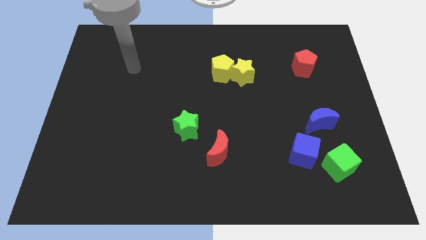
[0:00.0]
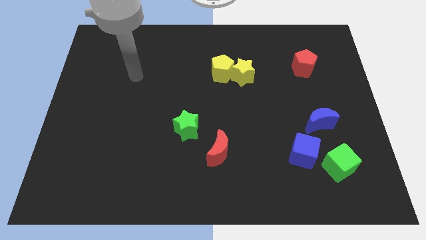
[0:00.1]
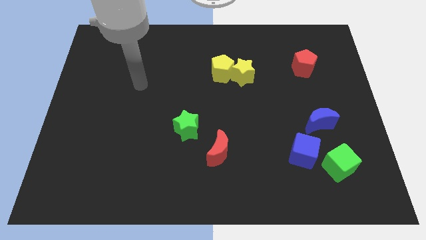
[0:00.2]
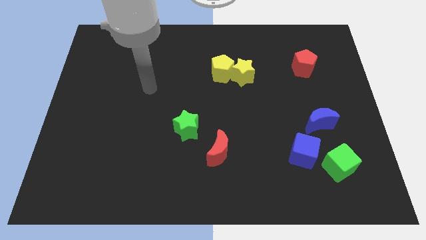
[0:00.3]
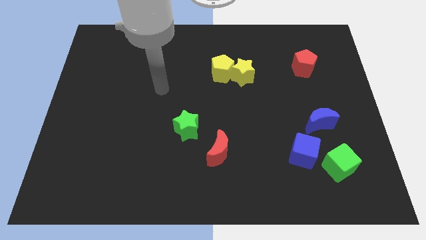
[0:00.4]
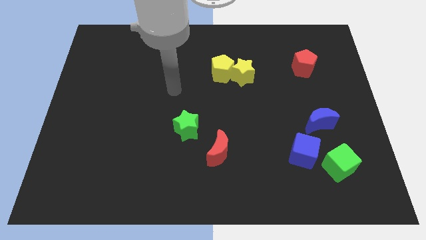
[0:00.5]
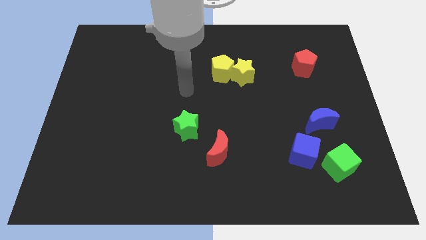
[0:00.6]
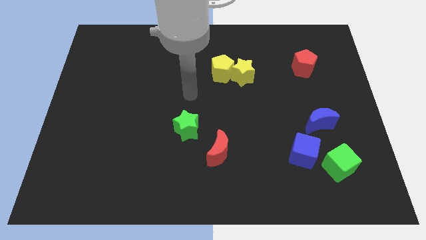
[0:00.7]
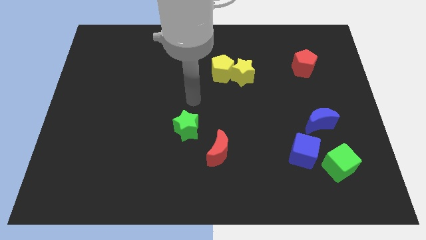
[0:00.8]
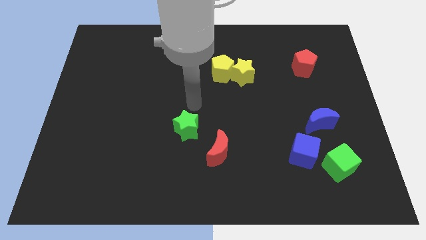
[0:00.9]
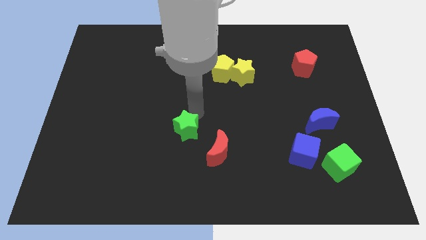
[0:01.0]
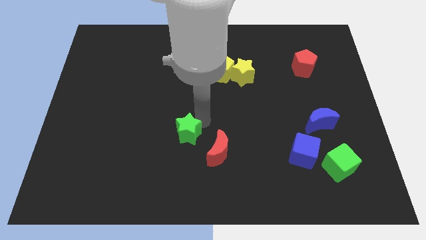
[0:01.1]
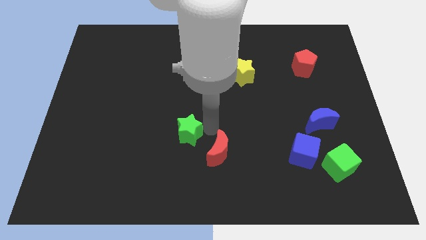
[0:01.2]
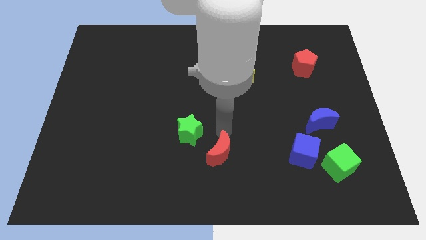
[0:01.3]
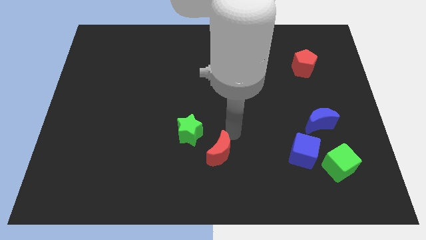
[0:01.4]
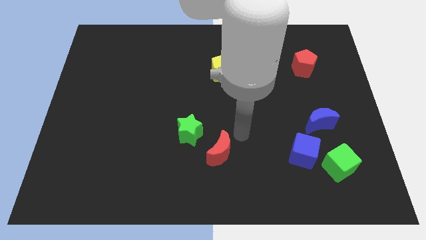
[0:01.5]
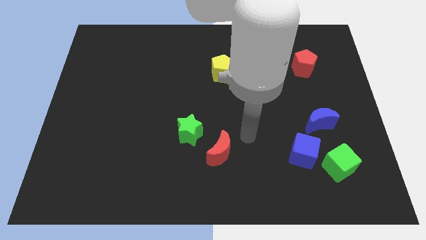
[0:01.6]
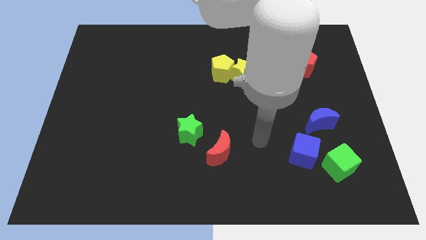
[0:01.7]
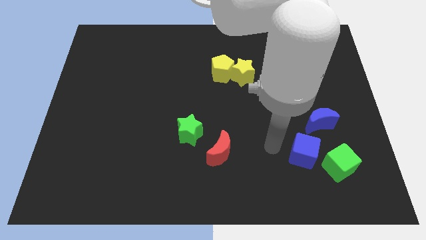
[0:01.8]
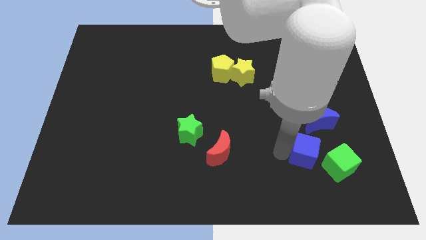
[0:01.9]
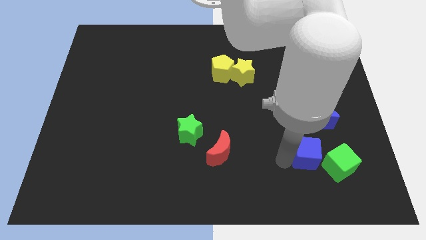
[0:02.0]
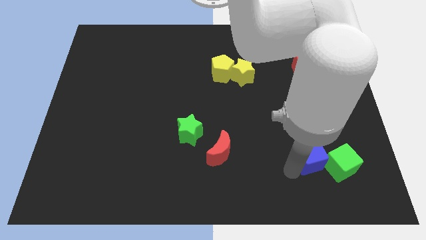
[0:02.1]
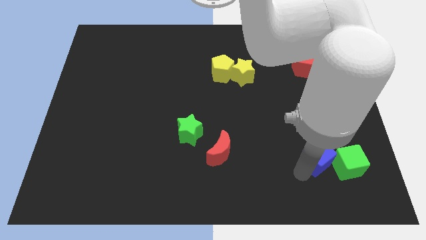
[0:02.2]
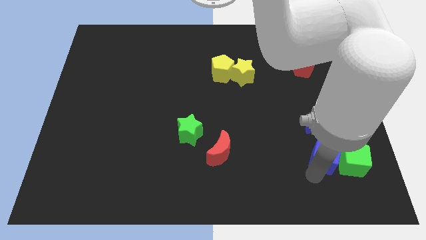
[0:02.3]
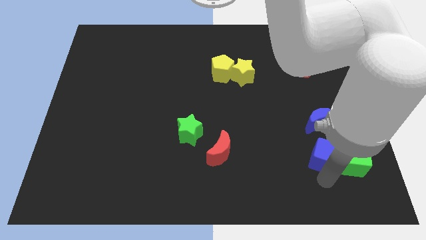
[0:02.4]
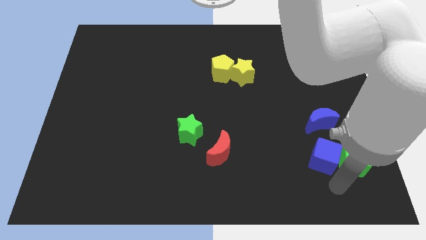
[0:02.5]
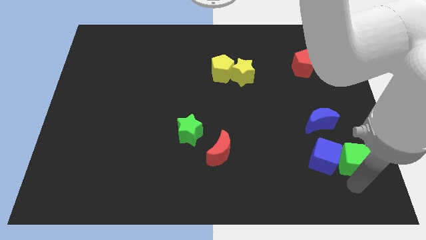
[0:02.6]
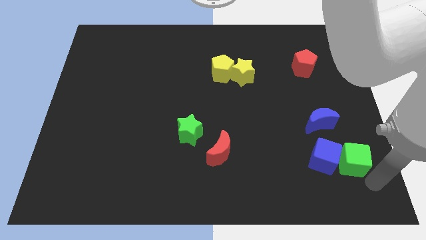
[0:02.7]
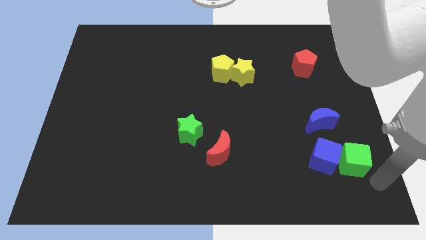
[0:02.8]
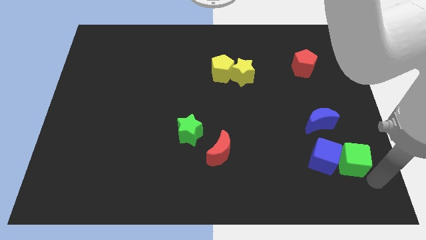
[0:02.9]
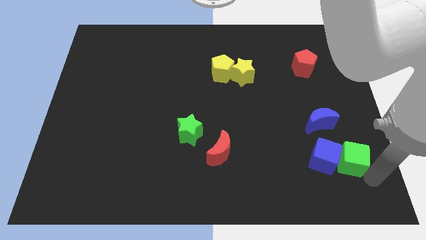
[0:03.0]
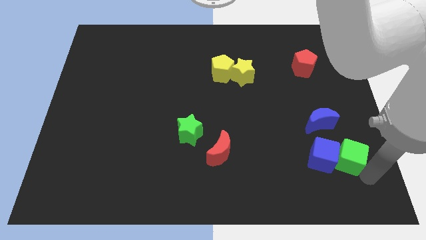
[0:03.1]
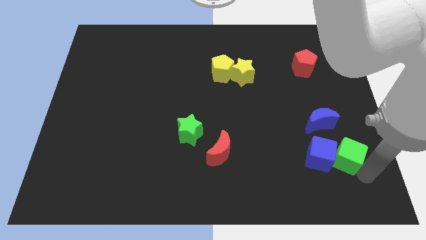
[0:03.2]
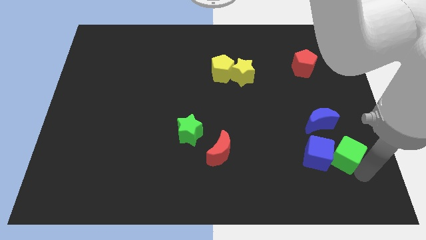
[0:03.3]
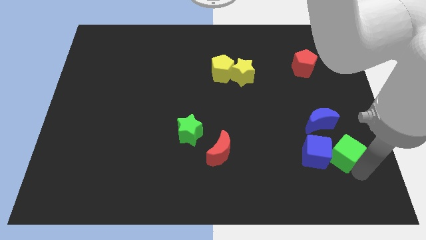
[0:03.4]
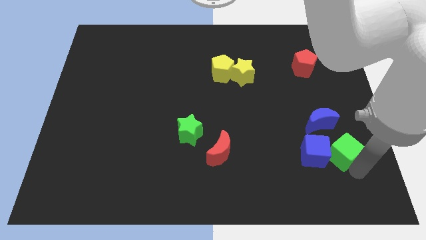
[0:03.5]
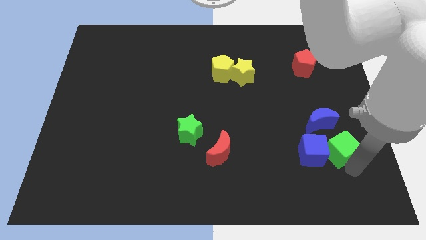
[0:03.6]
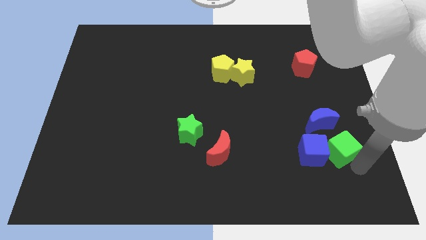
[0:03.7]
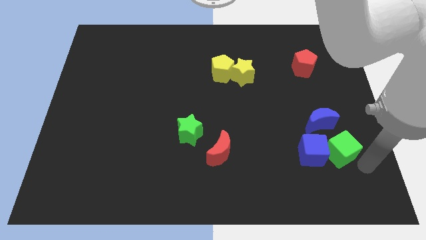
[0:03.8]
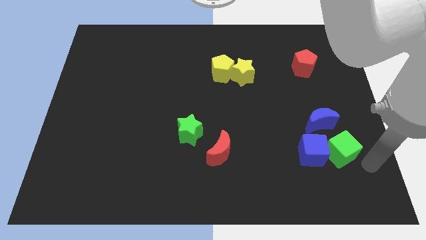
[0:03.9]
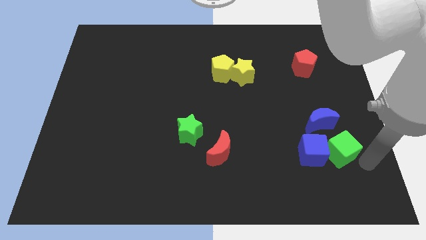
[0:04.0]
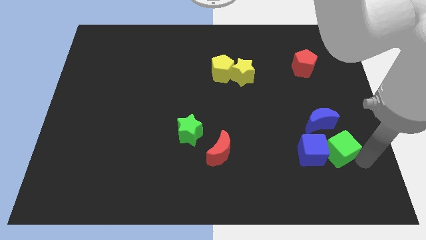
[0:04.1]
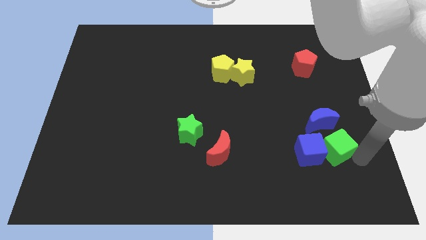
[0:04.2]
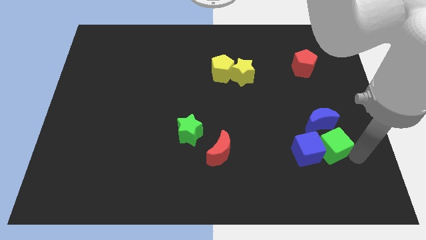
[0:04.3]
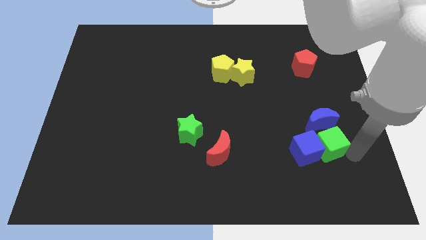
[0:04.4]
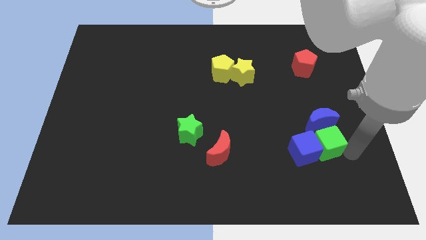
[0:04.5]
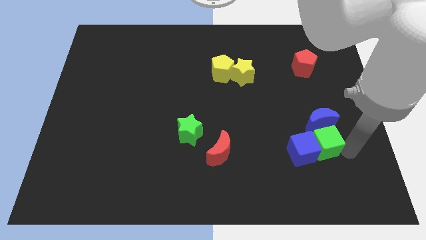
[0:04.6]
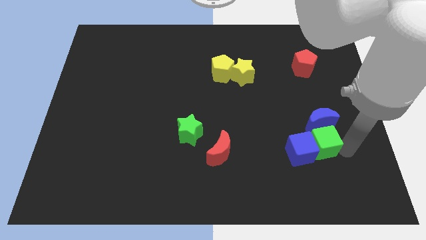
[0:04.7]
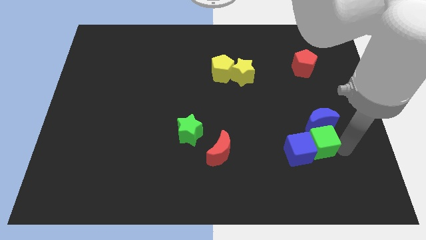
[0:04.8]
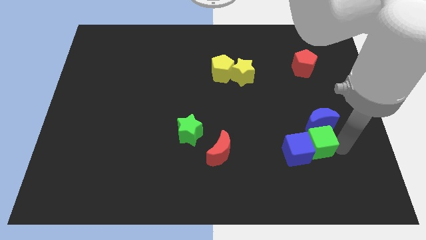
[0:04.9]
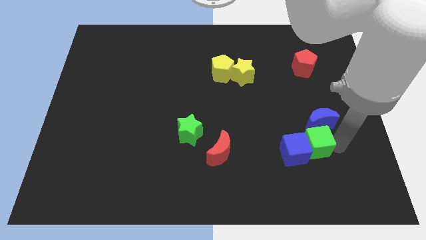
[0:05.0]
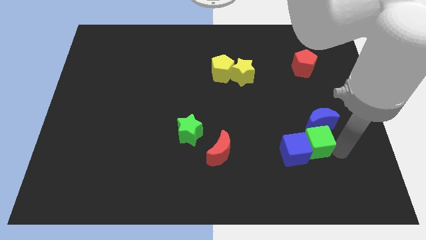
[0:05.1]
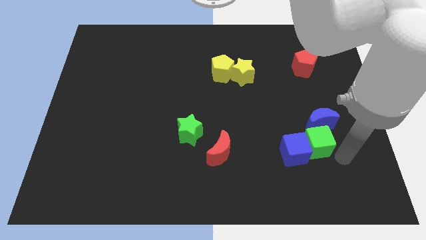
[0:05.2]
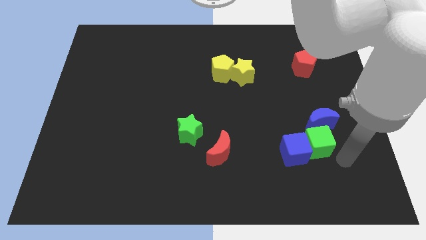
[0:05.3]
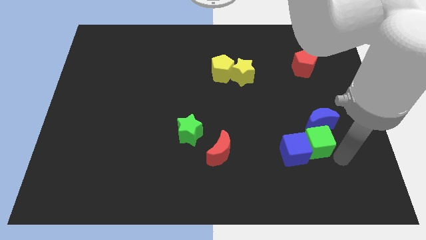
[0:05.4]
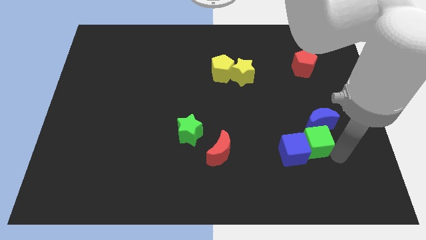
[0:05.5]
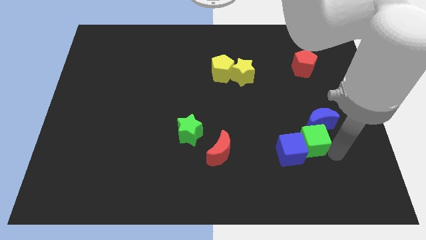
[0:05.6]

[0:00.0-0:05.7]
slightly slide the green cube upwards and to the left diagonally

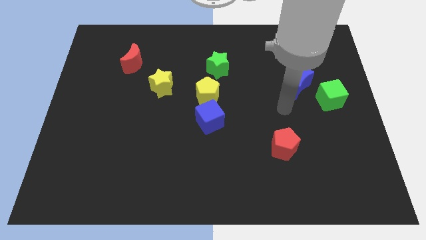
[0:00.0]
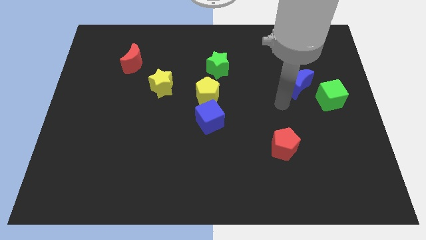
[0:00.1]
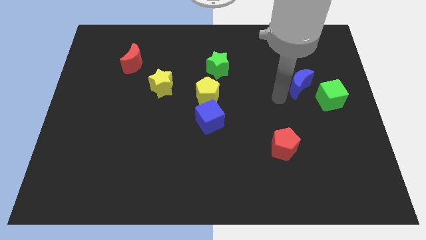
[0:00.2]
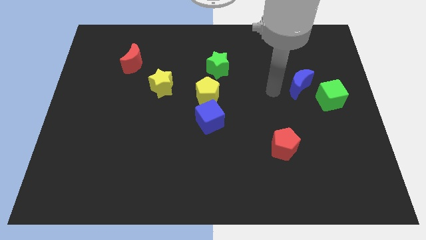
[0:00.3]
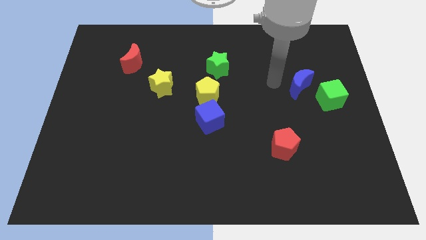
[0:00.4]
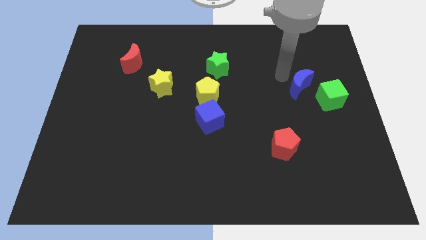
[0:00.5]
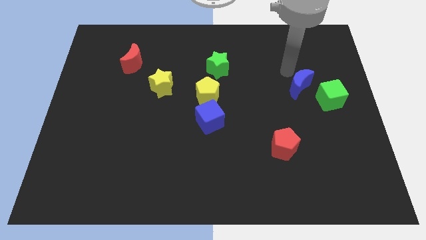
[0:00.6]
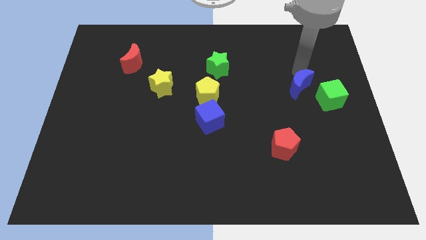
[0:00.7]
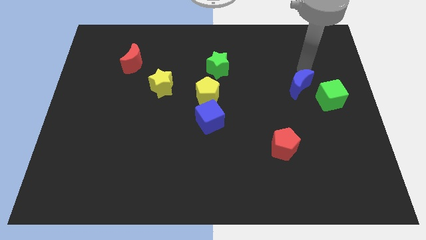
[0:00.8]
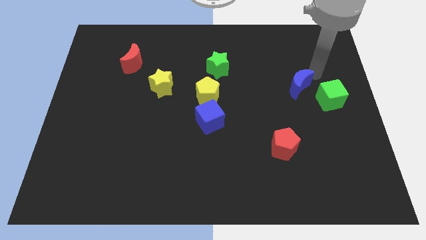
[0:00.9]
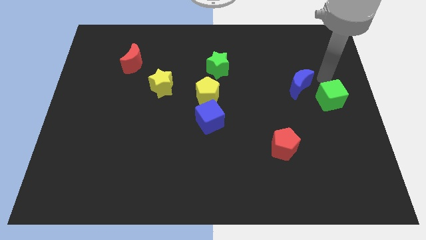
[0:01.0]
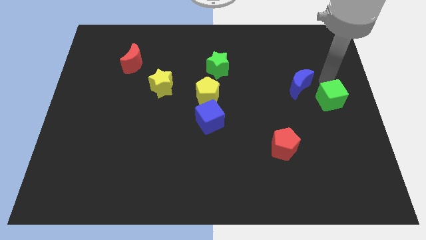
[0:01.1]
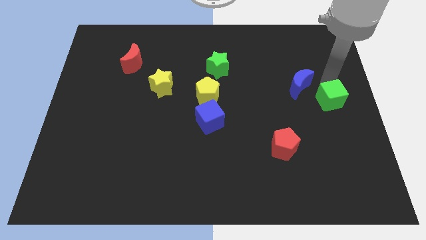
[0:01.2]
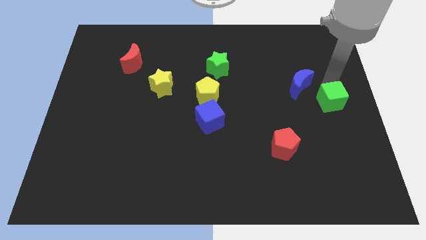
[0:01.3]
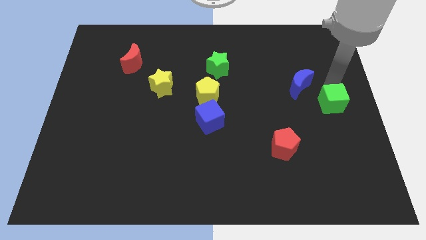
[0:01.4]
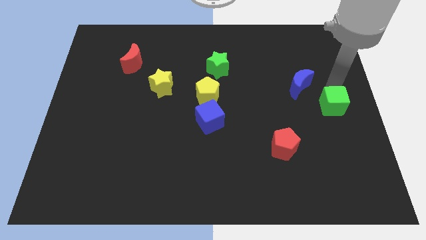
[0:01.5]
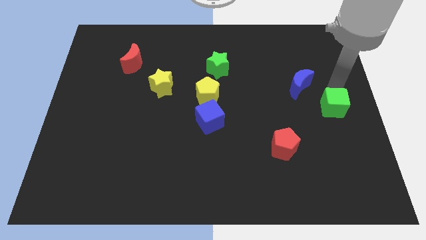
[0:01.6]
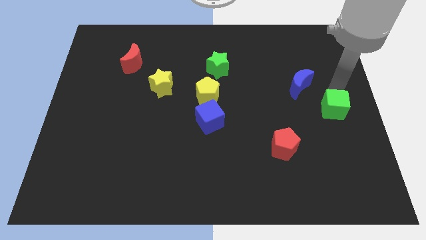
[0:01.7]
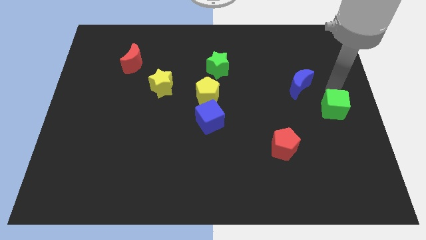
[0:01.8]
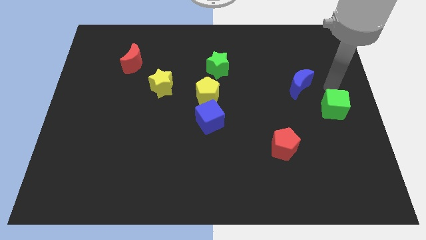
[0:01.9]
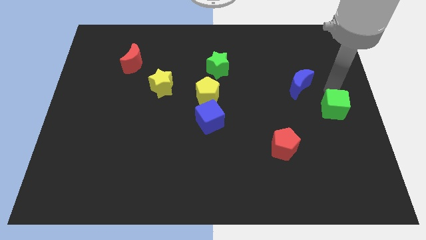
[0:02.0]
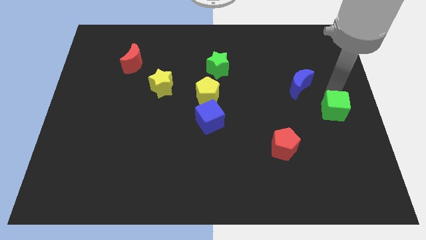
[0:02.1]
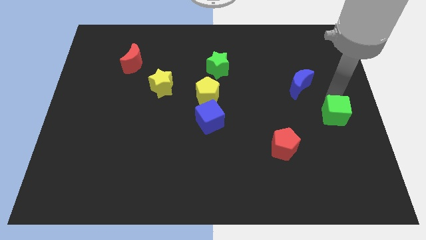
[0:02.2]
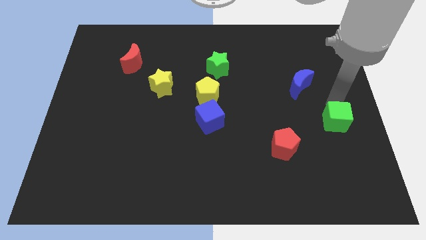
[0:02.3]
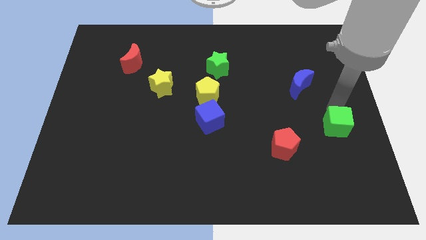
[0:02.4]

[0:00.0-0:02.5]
move the green cube a little bit downwards
